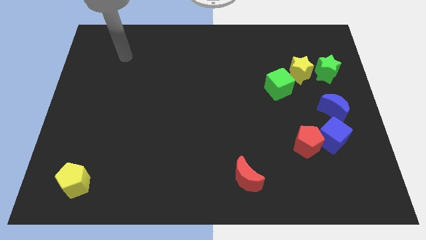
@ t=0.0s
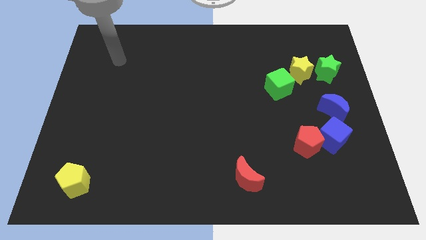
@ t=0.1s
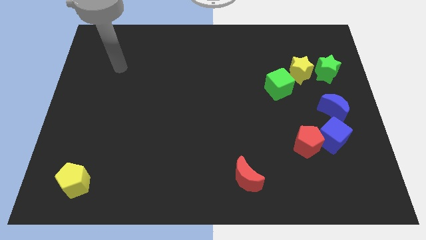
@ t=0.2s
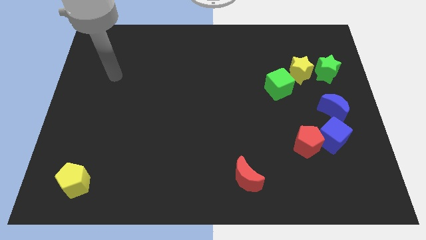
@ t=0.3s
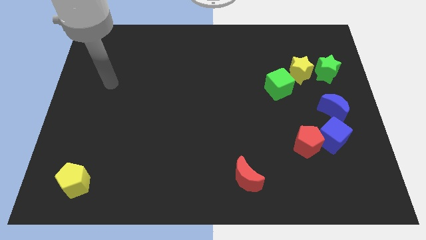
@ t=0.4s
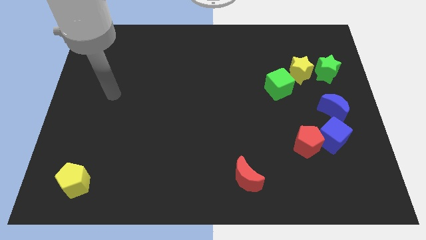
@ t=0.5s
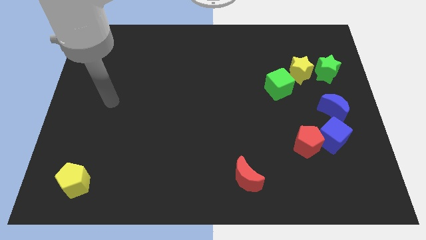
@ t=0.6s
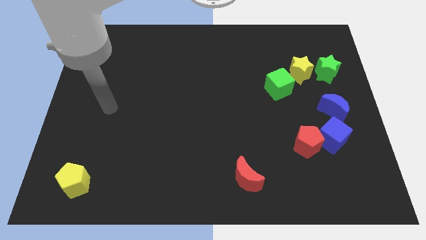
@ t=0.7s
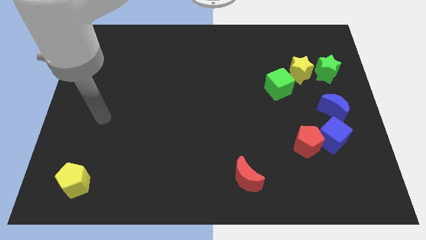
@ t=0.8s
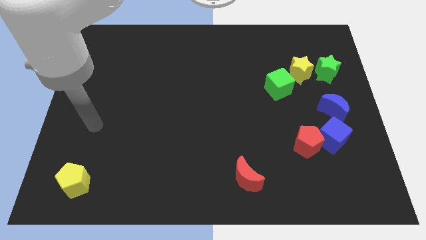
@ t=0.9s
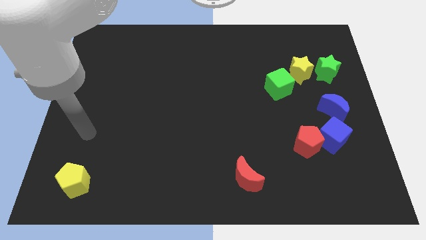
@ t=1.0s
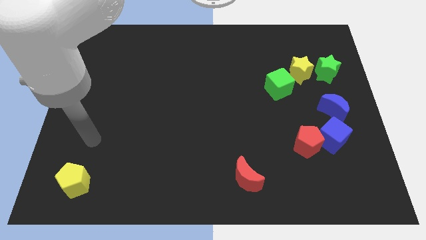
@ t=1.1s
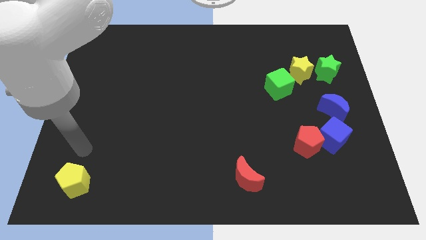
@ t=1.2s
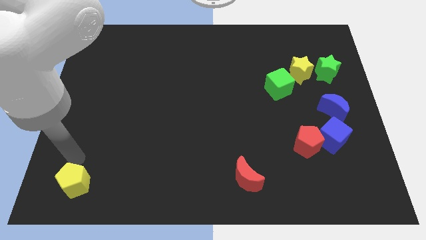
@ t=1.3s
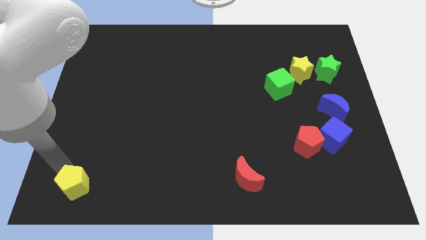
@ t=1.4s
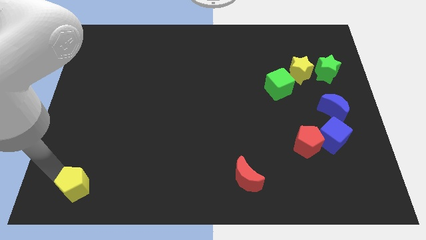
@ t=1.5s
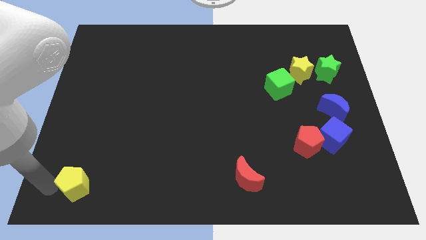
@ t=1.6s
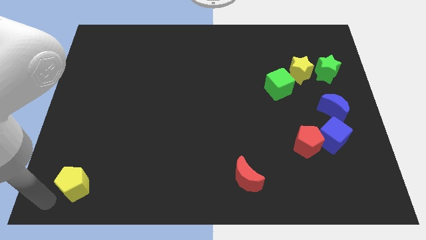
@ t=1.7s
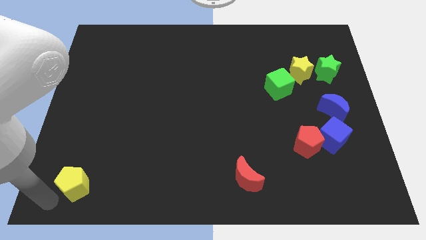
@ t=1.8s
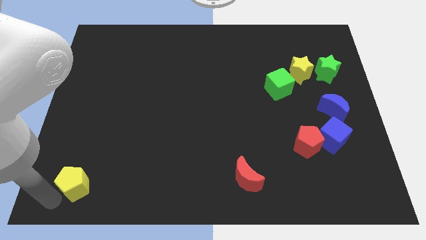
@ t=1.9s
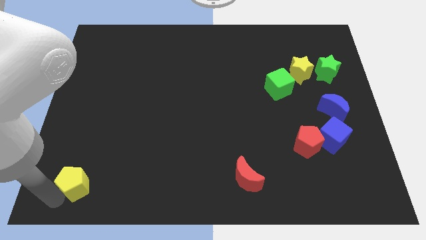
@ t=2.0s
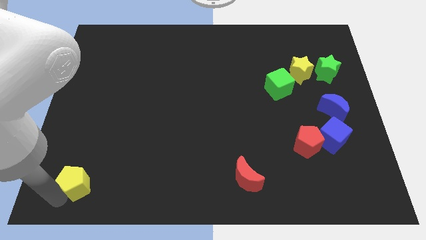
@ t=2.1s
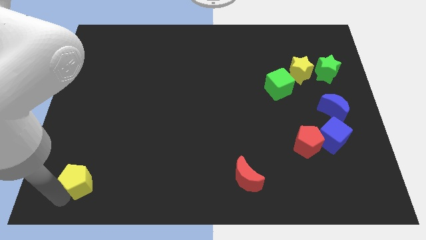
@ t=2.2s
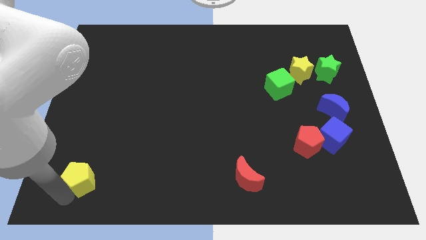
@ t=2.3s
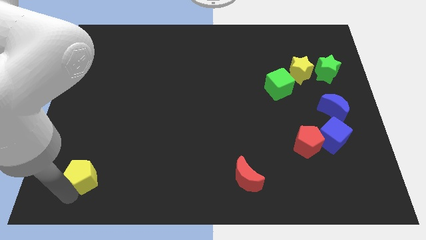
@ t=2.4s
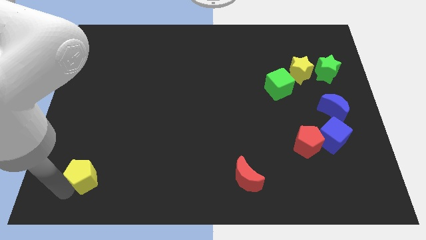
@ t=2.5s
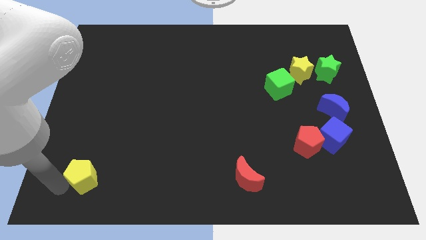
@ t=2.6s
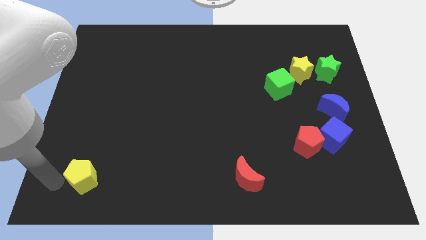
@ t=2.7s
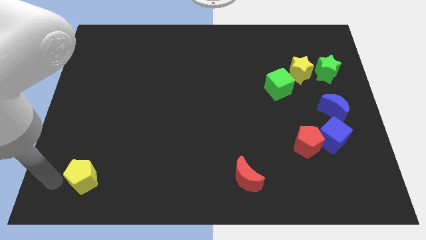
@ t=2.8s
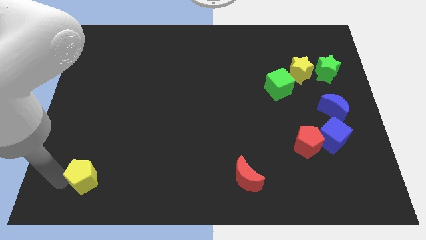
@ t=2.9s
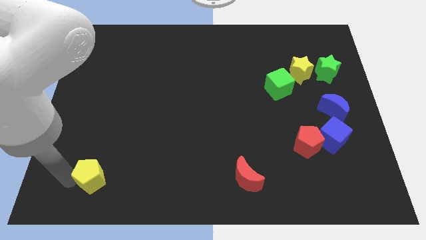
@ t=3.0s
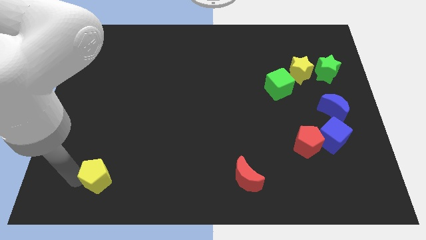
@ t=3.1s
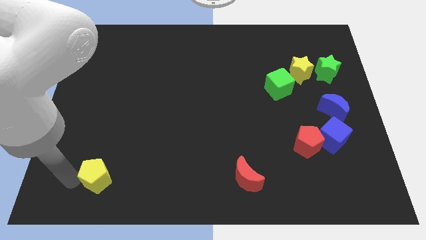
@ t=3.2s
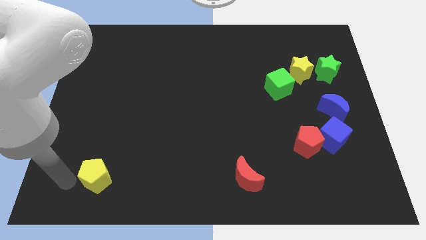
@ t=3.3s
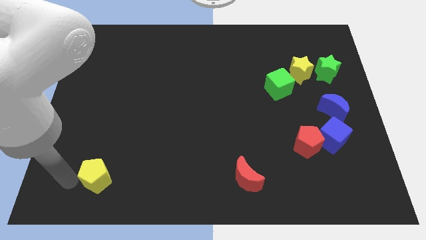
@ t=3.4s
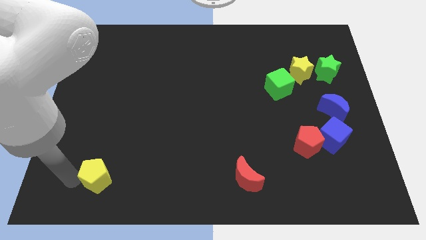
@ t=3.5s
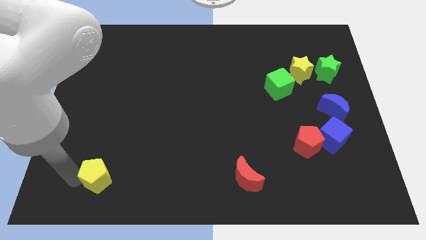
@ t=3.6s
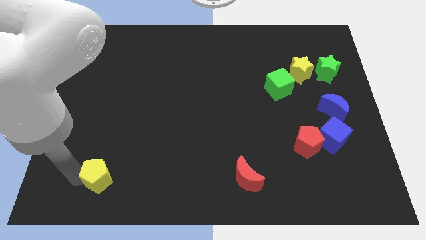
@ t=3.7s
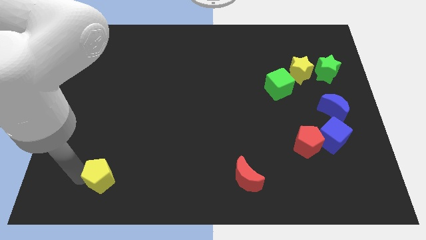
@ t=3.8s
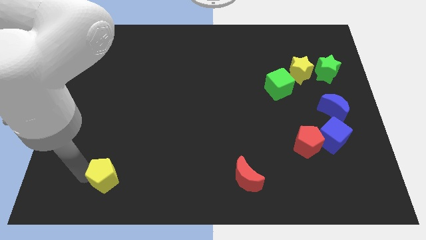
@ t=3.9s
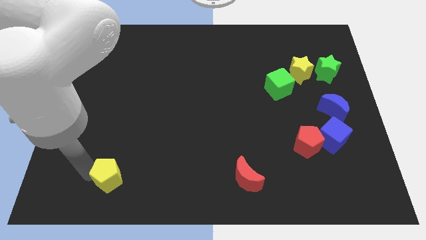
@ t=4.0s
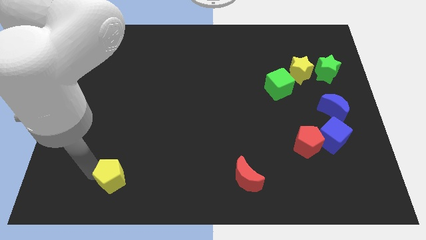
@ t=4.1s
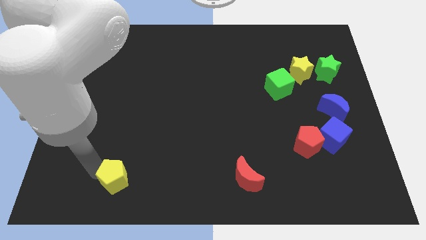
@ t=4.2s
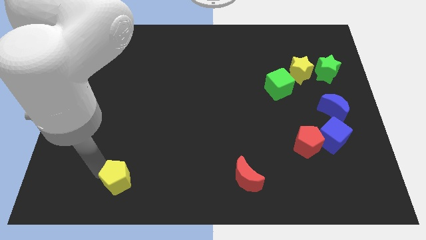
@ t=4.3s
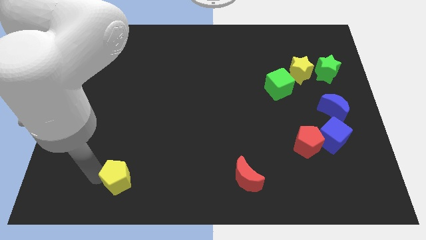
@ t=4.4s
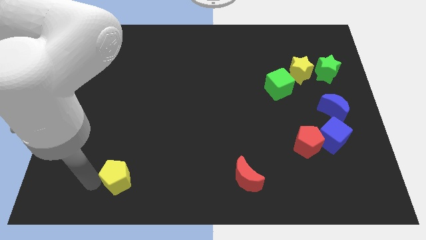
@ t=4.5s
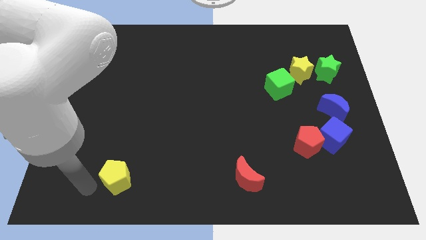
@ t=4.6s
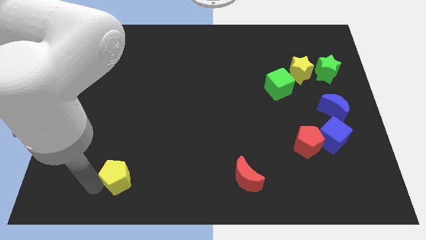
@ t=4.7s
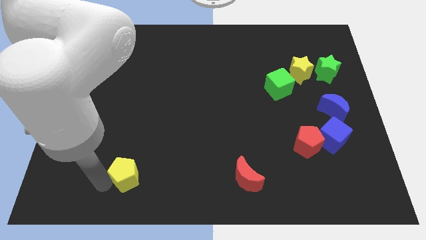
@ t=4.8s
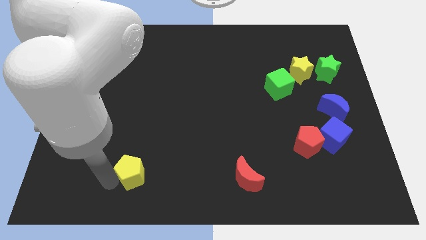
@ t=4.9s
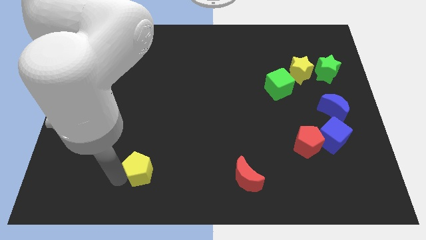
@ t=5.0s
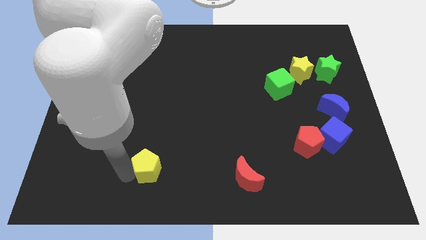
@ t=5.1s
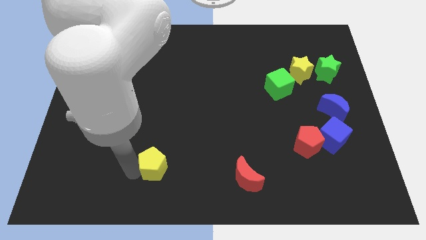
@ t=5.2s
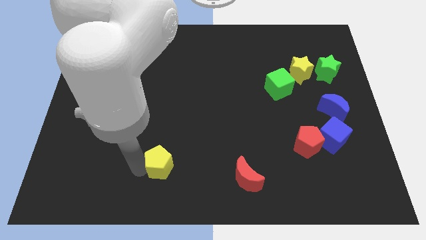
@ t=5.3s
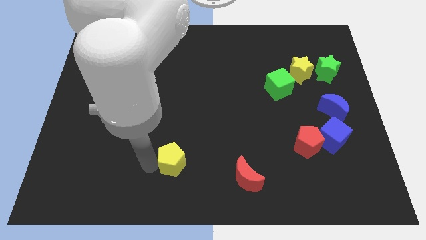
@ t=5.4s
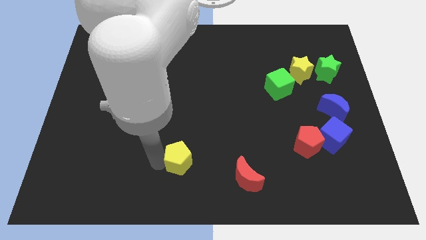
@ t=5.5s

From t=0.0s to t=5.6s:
move the yellow pentagon left of the red moon

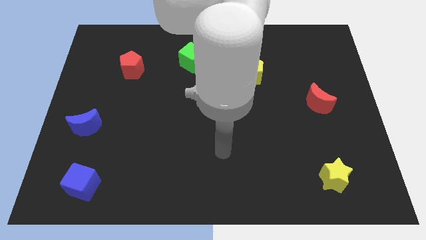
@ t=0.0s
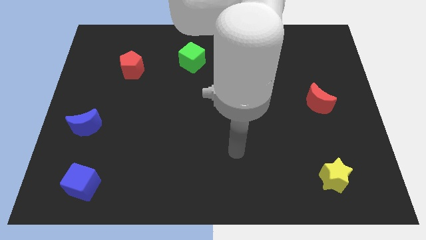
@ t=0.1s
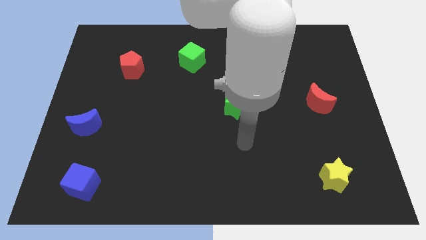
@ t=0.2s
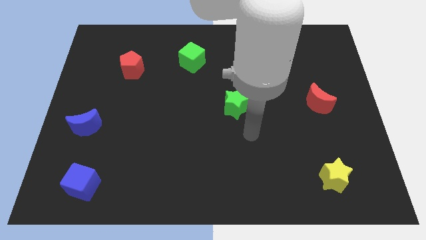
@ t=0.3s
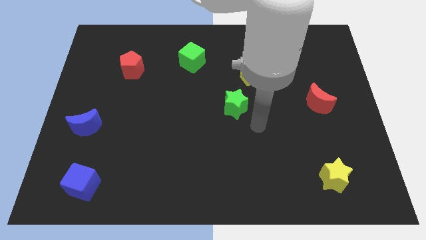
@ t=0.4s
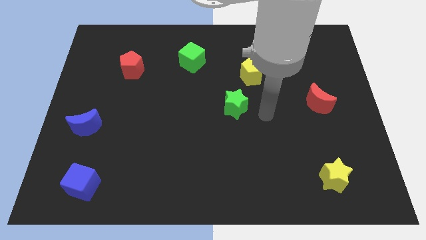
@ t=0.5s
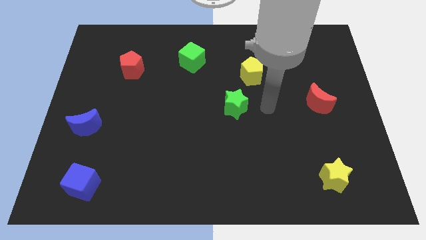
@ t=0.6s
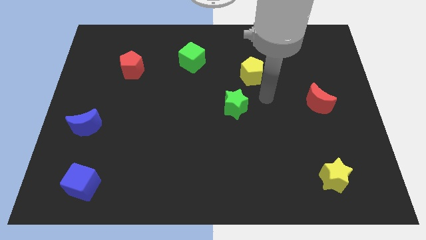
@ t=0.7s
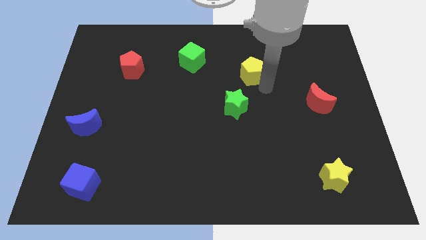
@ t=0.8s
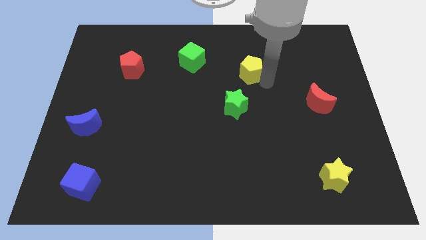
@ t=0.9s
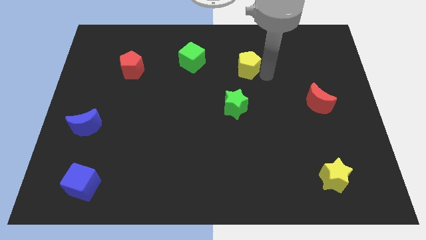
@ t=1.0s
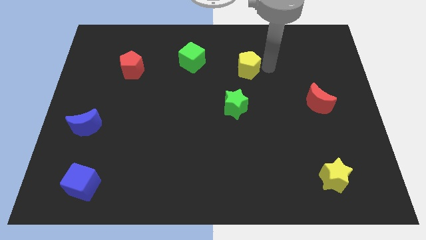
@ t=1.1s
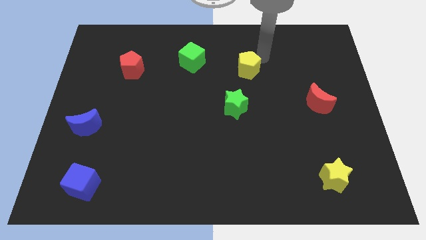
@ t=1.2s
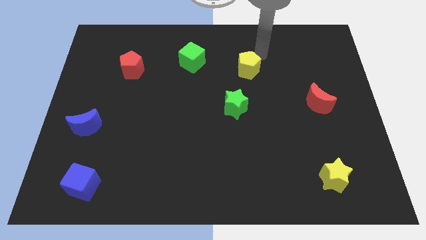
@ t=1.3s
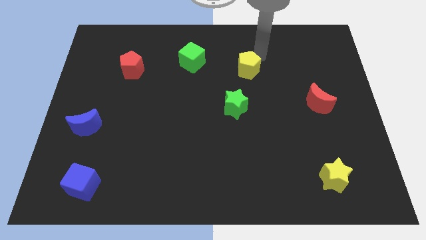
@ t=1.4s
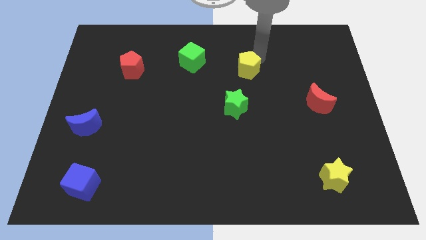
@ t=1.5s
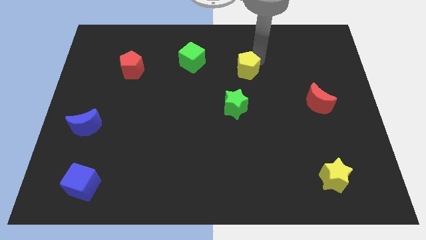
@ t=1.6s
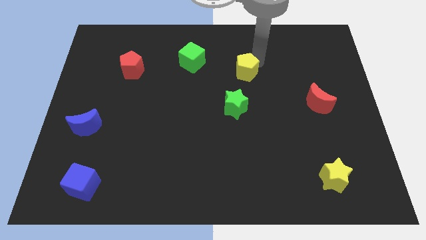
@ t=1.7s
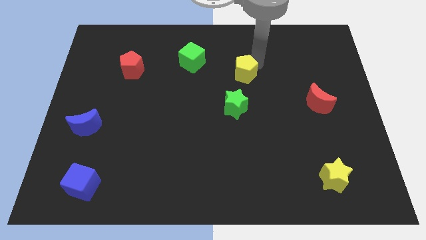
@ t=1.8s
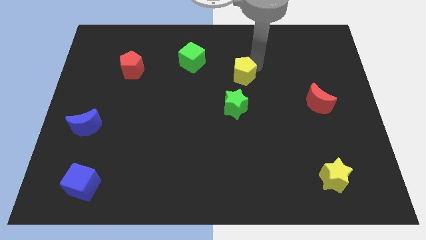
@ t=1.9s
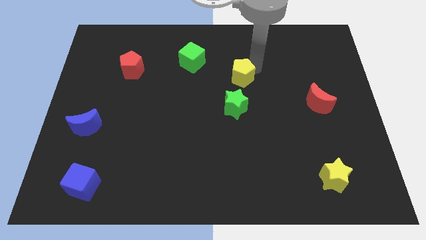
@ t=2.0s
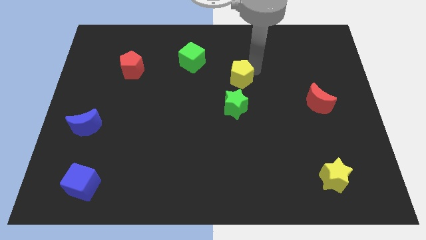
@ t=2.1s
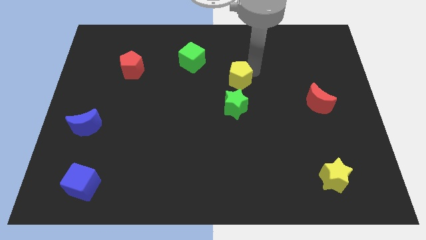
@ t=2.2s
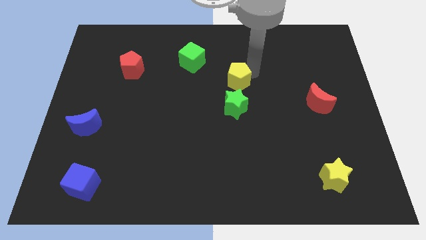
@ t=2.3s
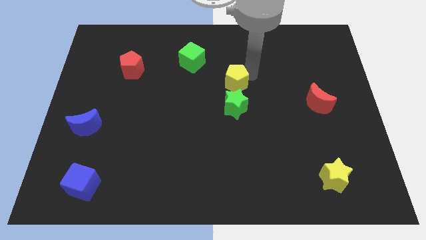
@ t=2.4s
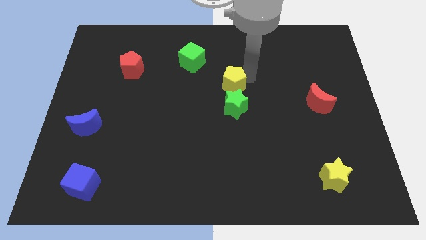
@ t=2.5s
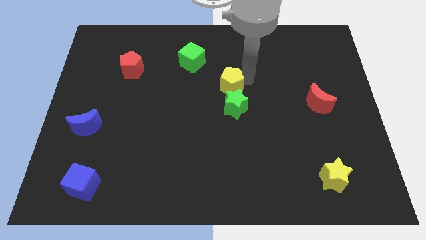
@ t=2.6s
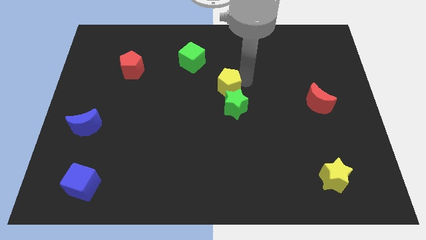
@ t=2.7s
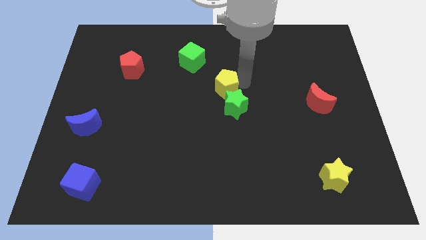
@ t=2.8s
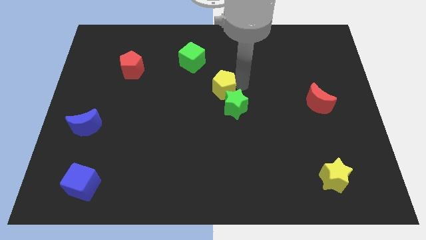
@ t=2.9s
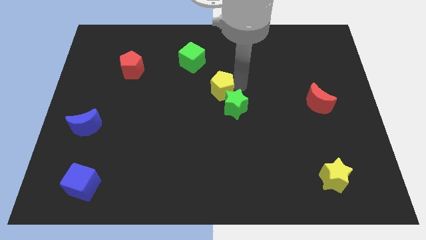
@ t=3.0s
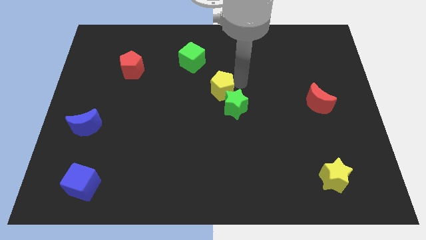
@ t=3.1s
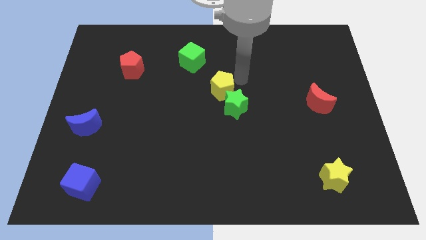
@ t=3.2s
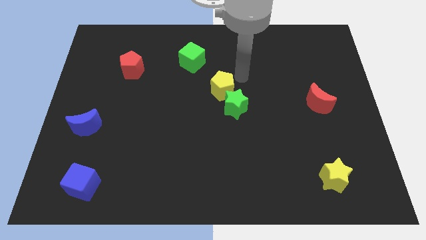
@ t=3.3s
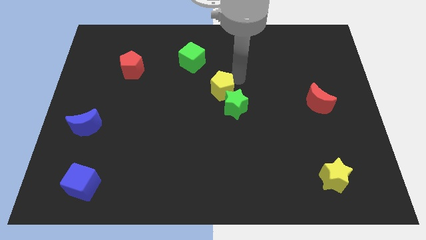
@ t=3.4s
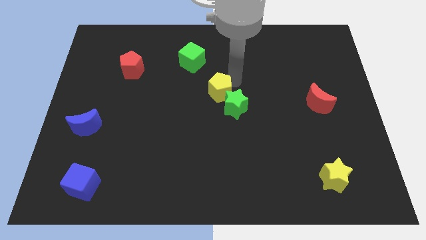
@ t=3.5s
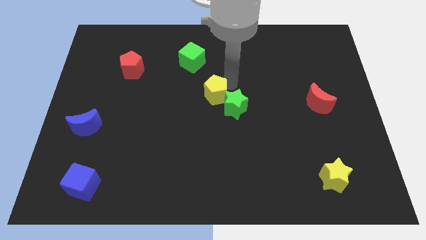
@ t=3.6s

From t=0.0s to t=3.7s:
put the yellow pentagon left of the green star
